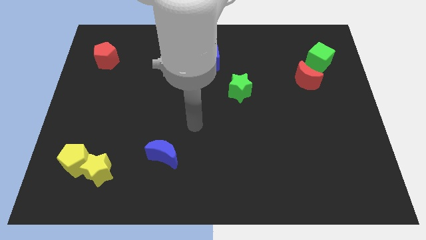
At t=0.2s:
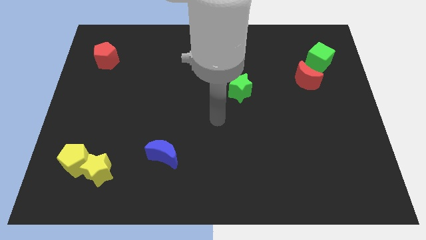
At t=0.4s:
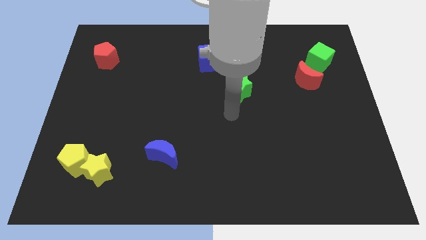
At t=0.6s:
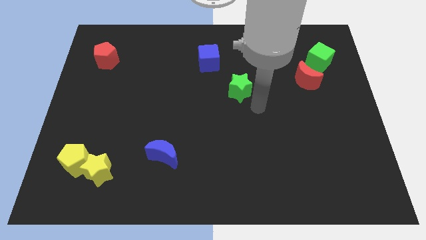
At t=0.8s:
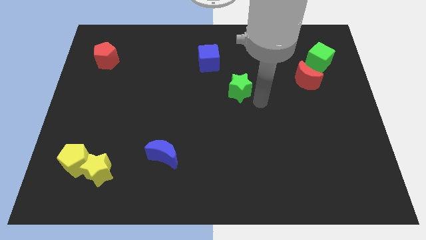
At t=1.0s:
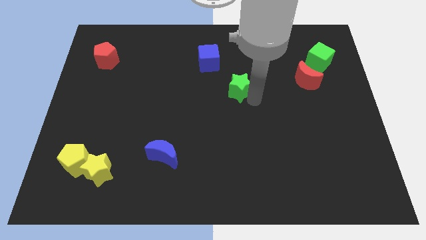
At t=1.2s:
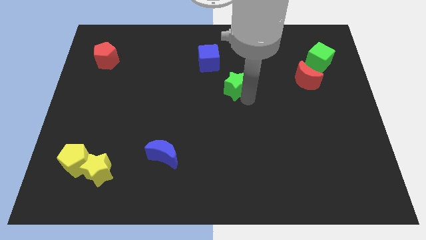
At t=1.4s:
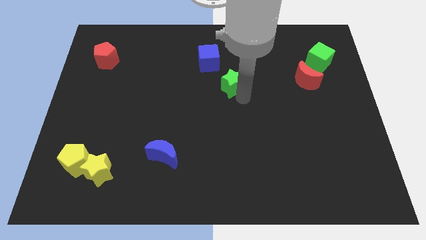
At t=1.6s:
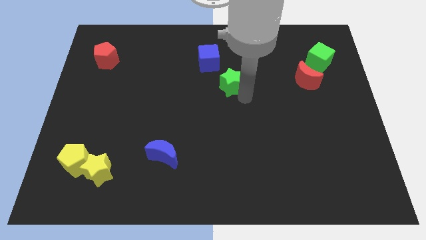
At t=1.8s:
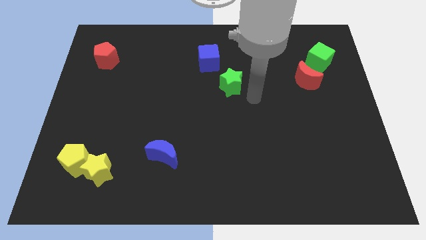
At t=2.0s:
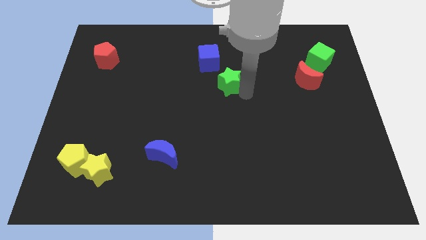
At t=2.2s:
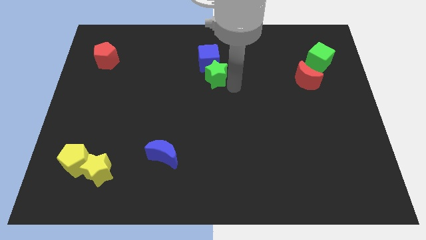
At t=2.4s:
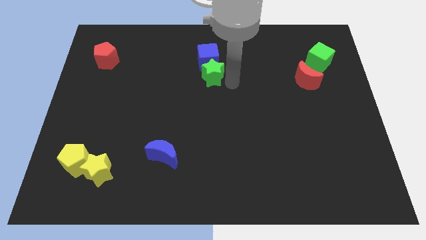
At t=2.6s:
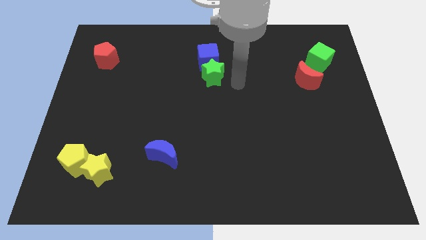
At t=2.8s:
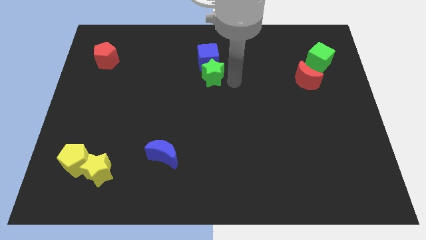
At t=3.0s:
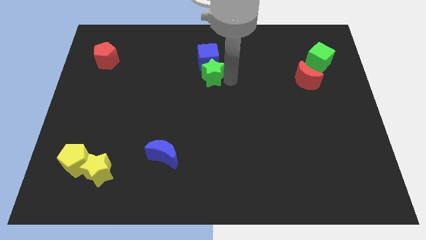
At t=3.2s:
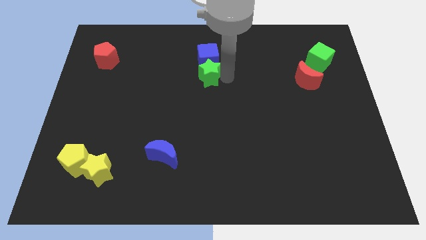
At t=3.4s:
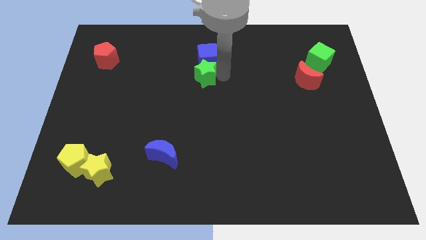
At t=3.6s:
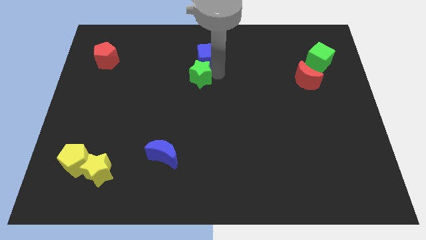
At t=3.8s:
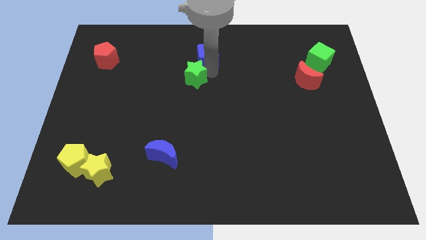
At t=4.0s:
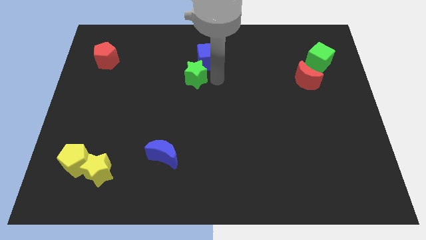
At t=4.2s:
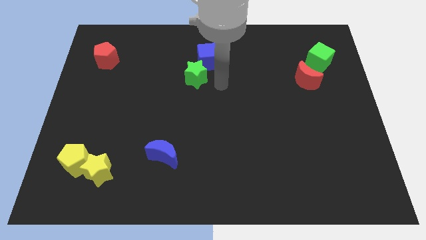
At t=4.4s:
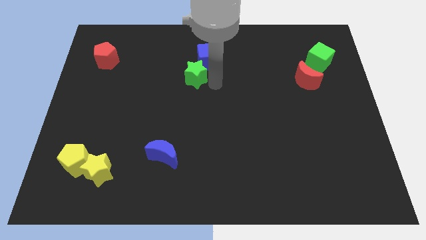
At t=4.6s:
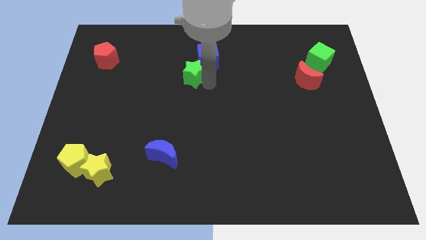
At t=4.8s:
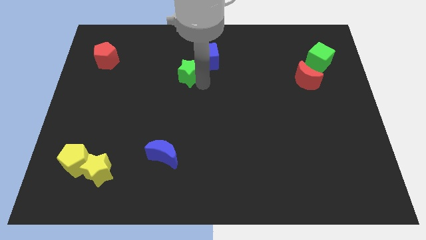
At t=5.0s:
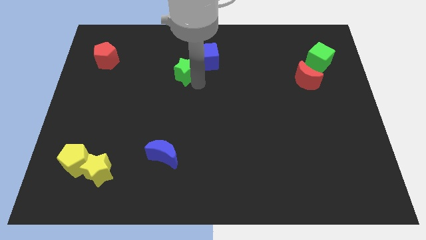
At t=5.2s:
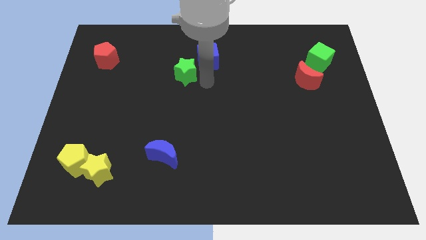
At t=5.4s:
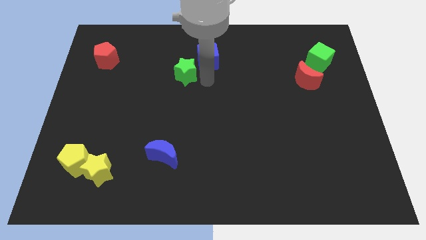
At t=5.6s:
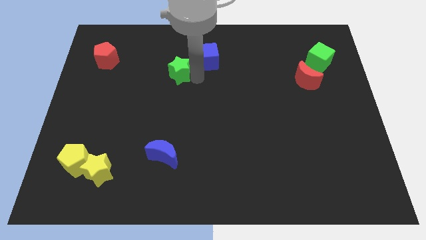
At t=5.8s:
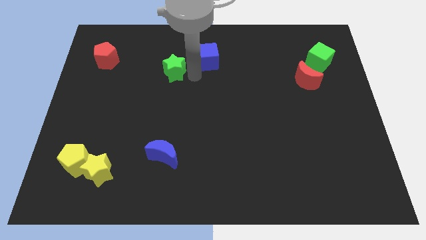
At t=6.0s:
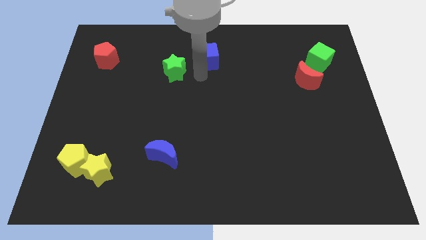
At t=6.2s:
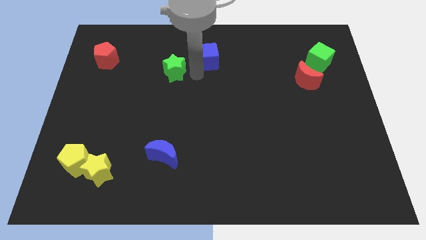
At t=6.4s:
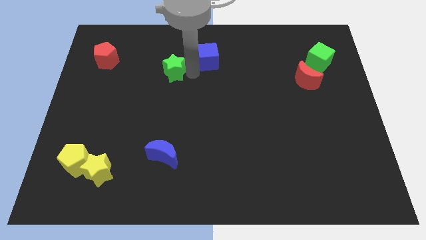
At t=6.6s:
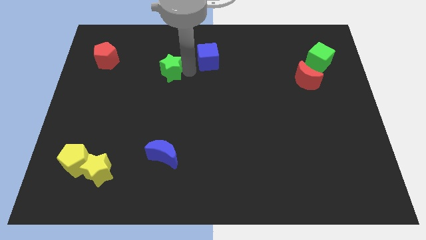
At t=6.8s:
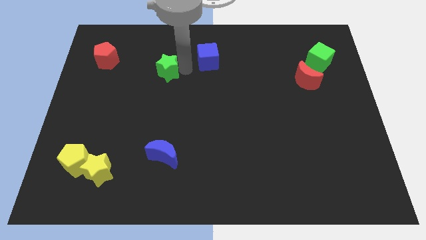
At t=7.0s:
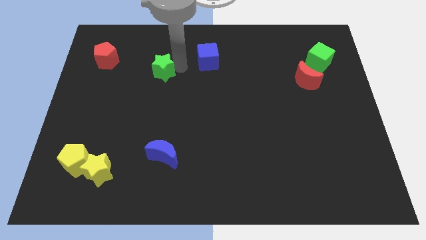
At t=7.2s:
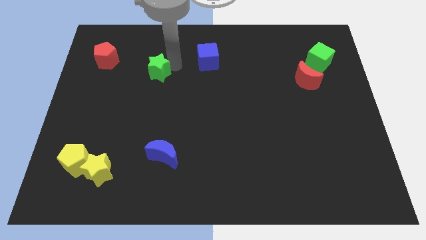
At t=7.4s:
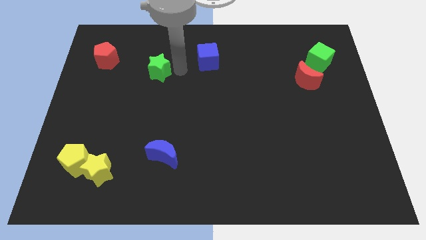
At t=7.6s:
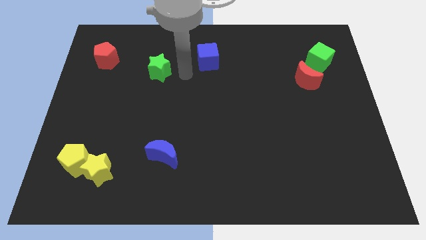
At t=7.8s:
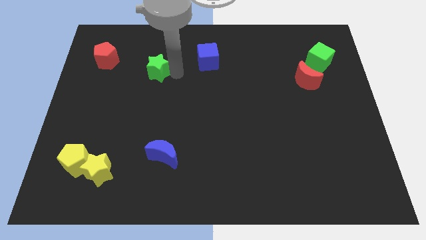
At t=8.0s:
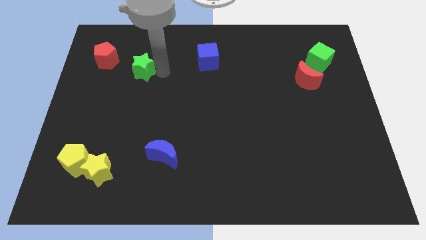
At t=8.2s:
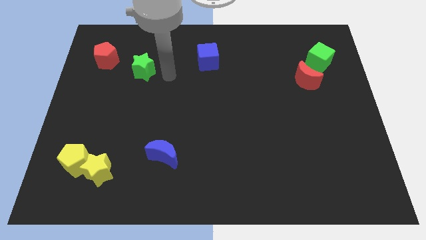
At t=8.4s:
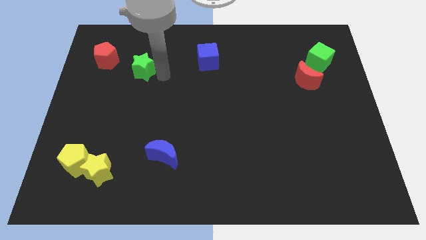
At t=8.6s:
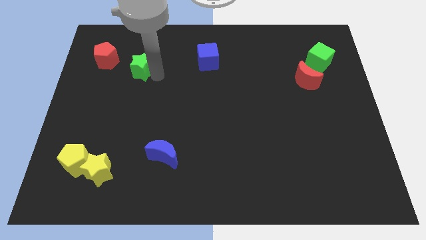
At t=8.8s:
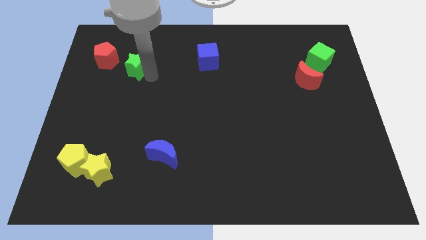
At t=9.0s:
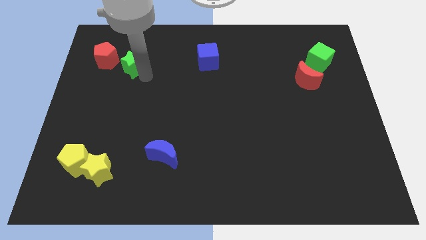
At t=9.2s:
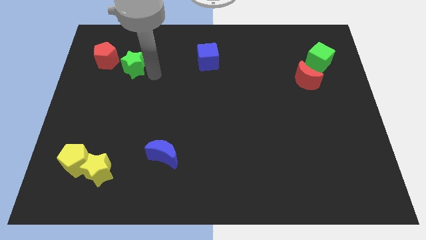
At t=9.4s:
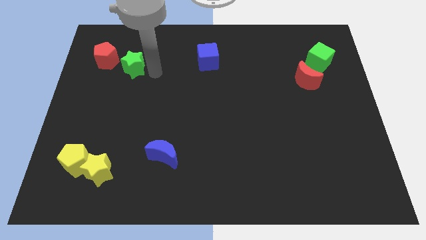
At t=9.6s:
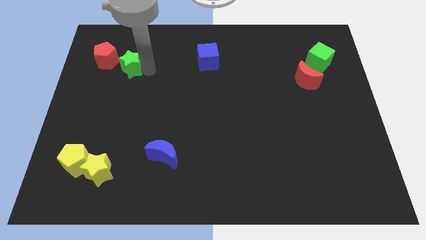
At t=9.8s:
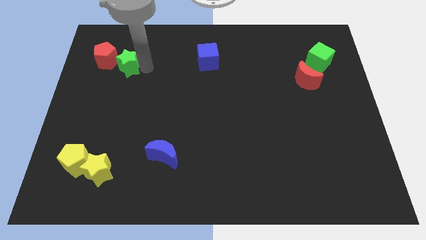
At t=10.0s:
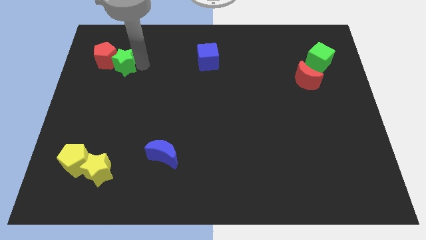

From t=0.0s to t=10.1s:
slide the green star next to the red pentagon

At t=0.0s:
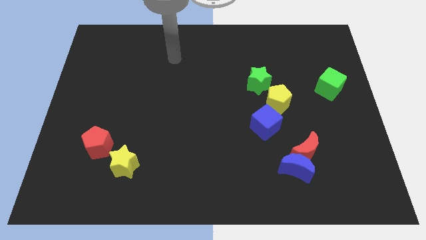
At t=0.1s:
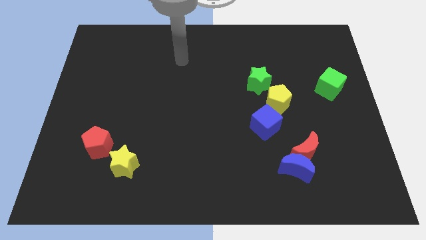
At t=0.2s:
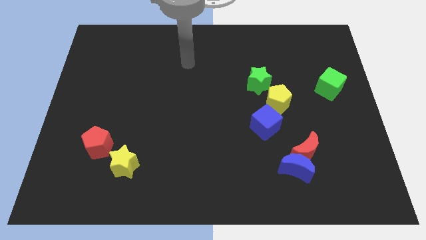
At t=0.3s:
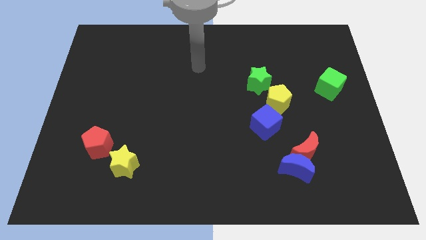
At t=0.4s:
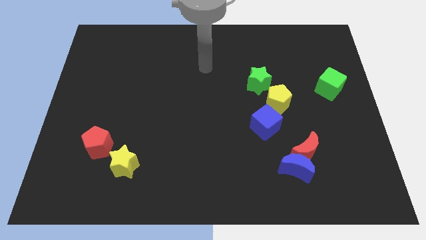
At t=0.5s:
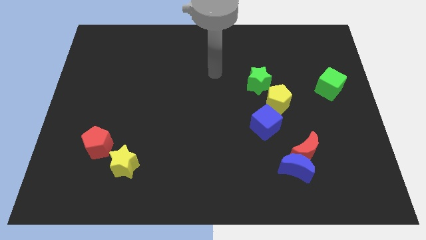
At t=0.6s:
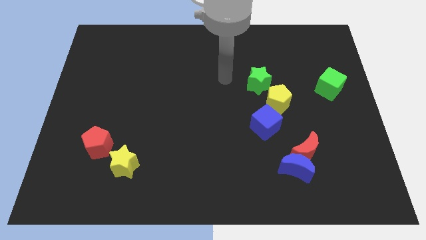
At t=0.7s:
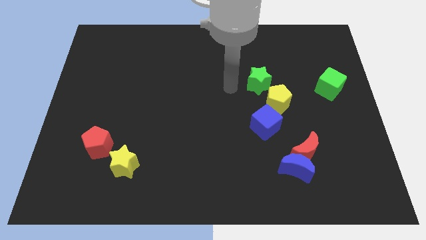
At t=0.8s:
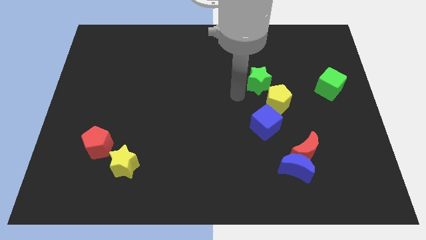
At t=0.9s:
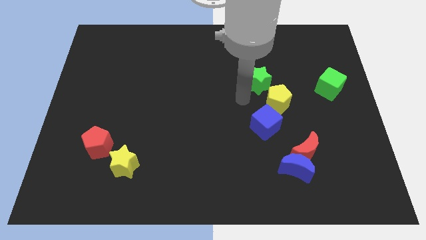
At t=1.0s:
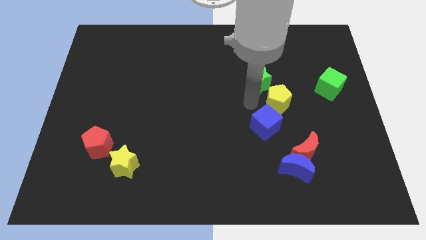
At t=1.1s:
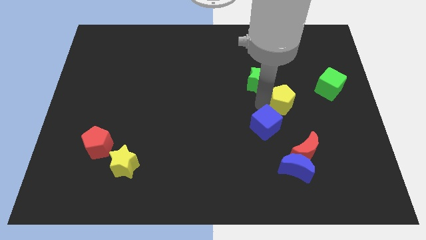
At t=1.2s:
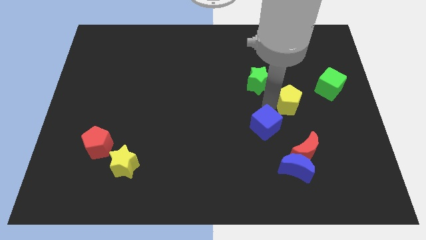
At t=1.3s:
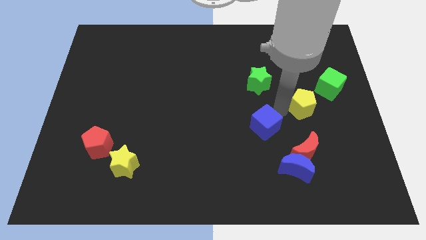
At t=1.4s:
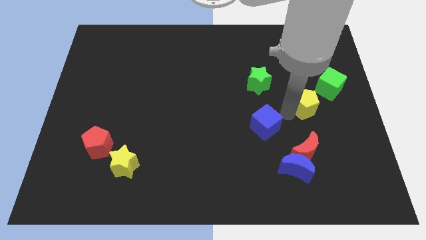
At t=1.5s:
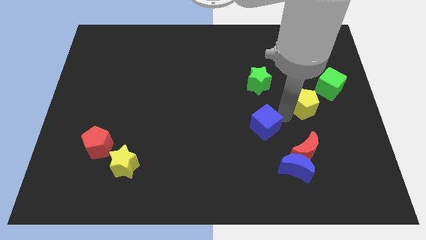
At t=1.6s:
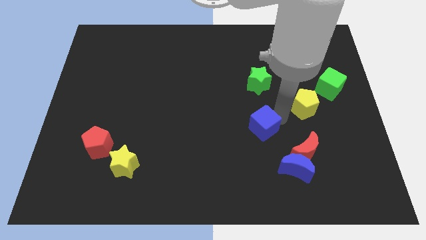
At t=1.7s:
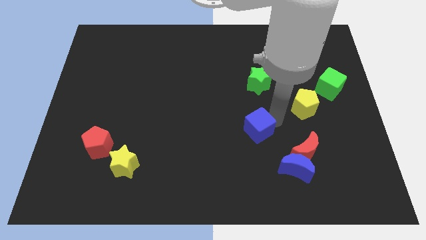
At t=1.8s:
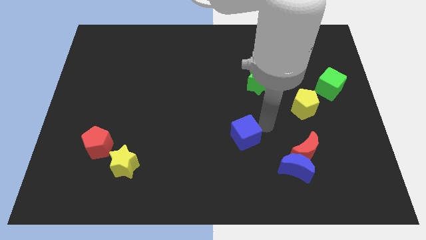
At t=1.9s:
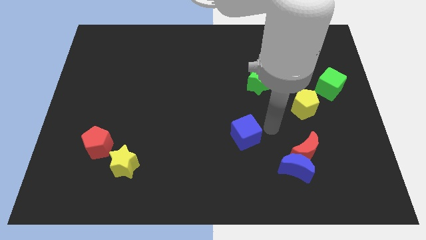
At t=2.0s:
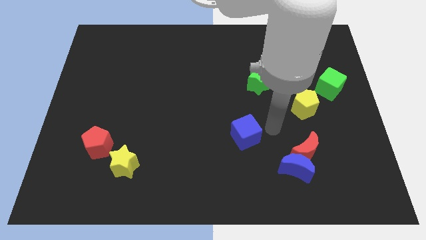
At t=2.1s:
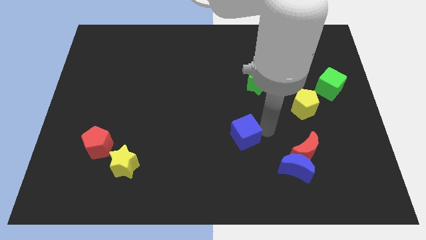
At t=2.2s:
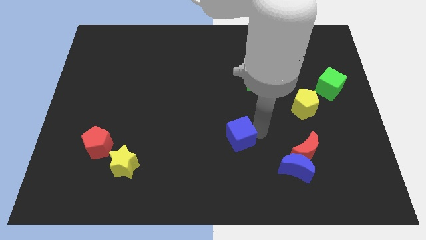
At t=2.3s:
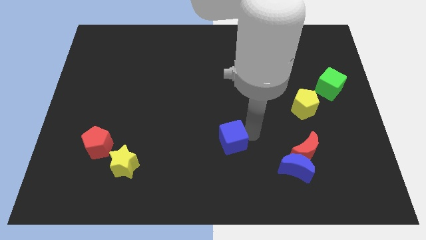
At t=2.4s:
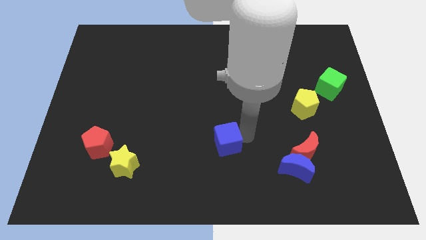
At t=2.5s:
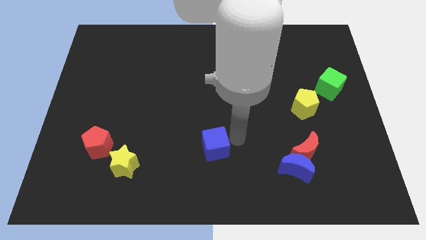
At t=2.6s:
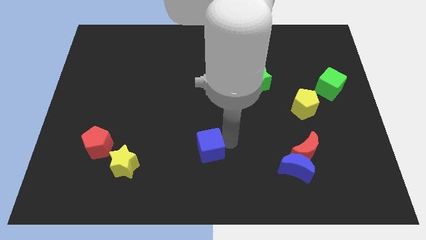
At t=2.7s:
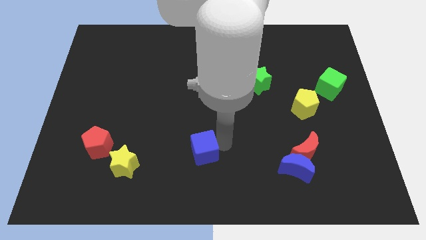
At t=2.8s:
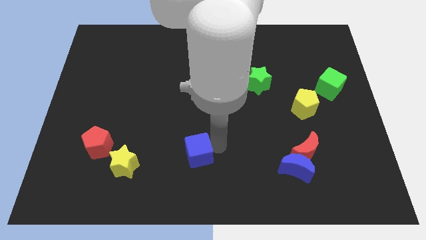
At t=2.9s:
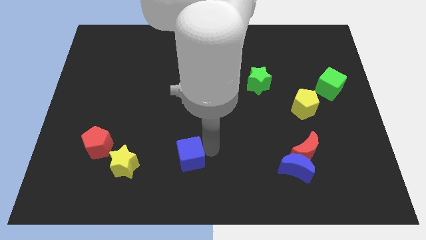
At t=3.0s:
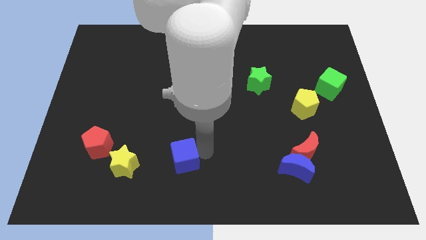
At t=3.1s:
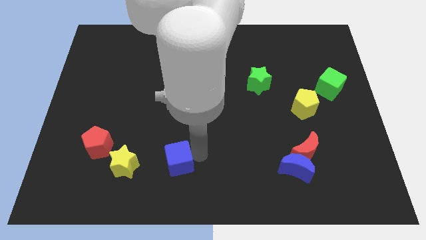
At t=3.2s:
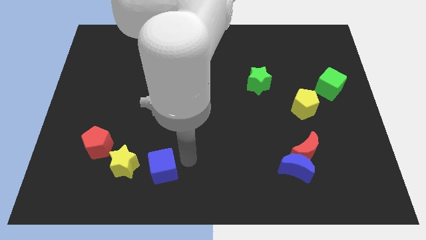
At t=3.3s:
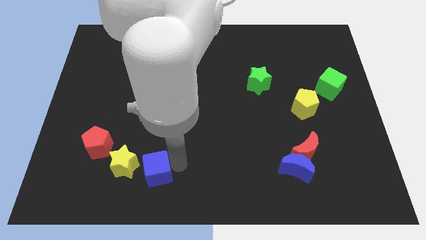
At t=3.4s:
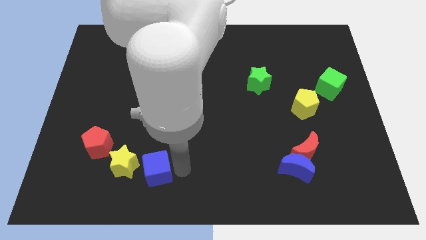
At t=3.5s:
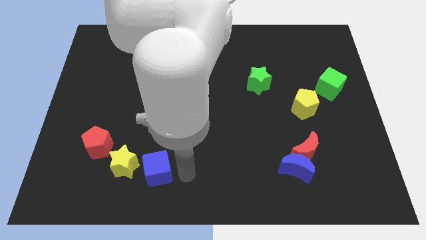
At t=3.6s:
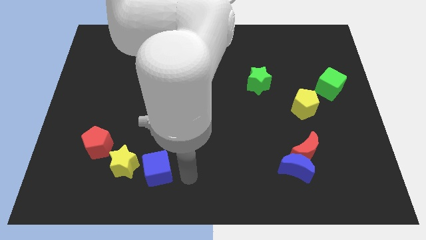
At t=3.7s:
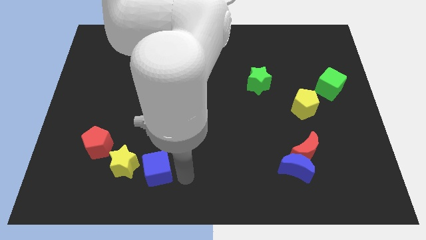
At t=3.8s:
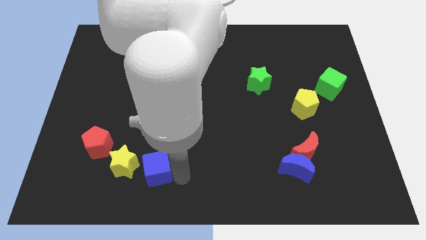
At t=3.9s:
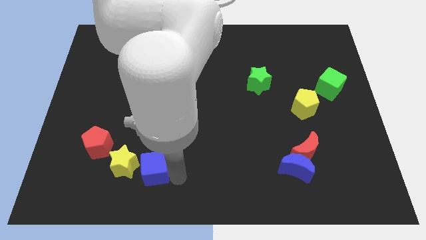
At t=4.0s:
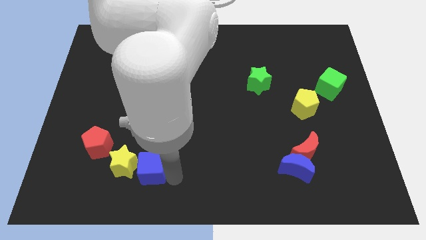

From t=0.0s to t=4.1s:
move the blue cube next to the yellow star
